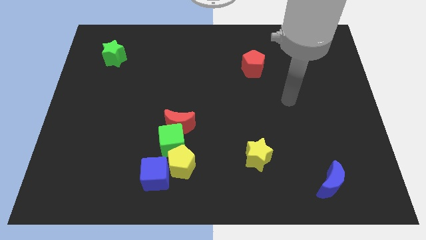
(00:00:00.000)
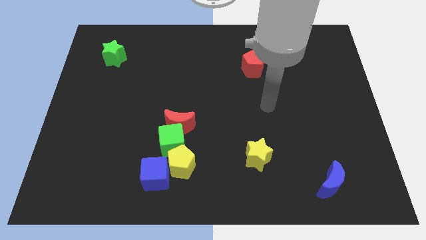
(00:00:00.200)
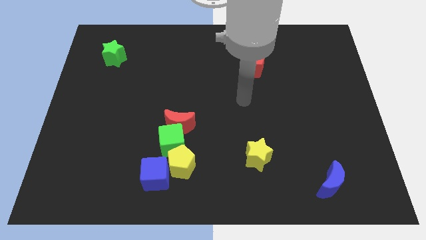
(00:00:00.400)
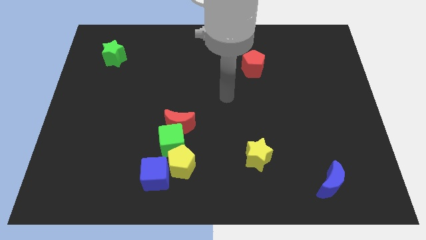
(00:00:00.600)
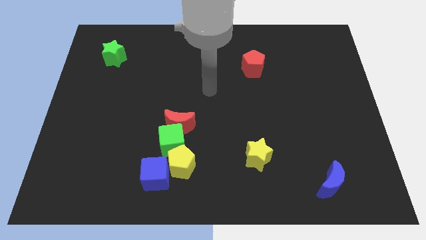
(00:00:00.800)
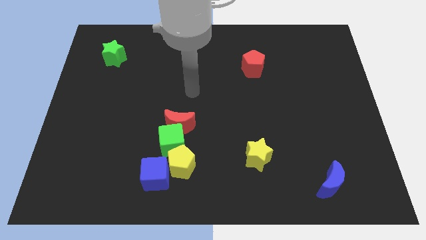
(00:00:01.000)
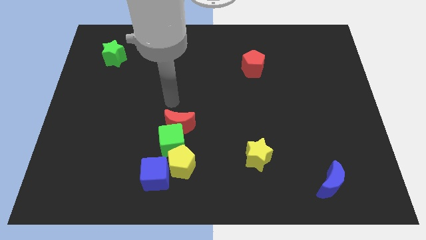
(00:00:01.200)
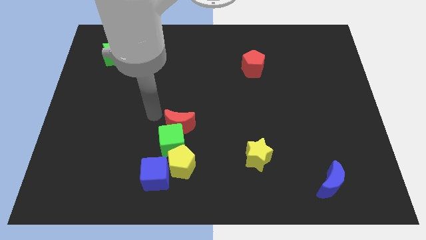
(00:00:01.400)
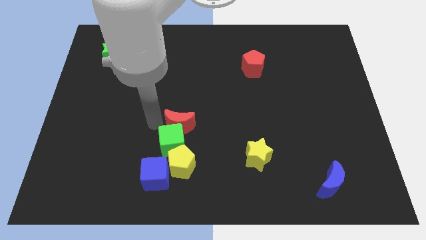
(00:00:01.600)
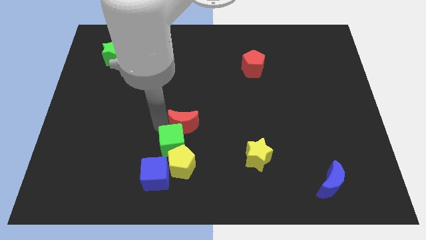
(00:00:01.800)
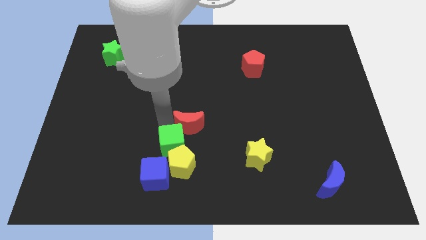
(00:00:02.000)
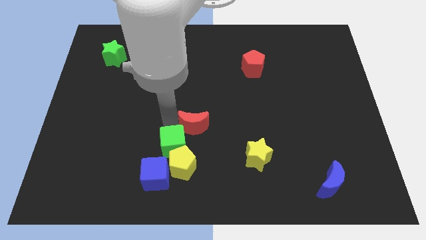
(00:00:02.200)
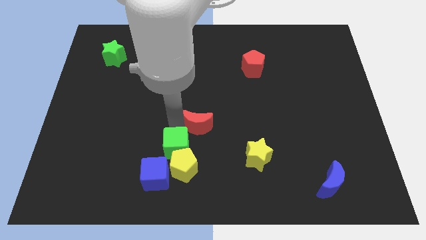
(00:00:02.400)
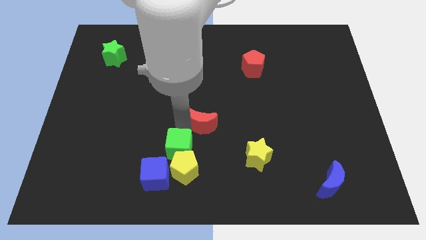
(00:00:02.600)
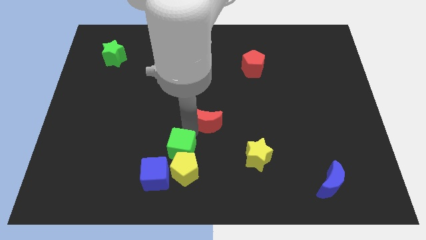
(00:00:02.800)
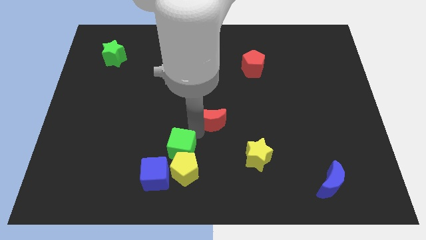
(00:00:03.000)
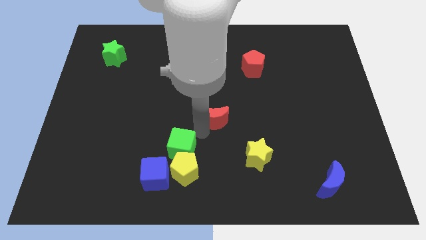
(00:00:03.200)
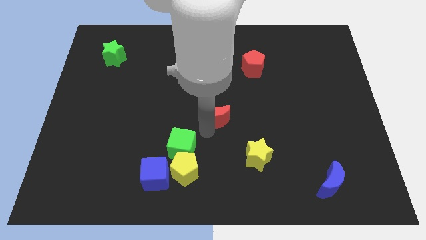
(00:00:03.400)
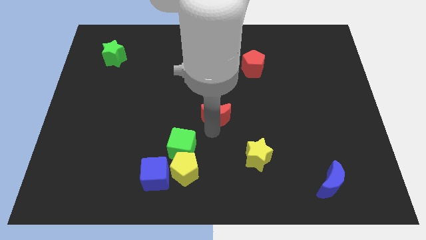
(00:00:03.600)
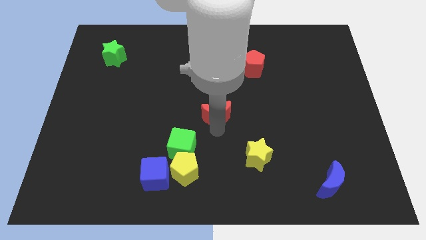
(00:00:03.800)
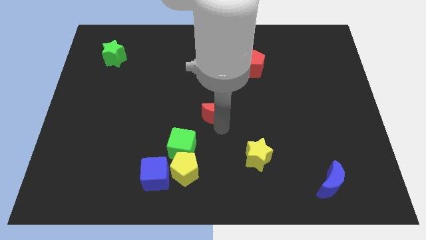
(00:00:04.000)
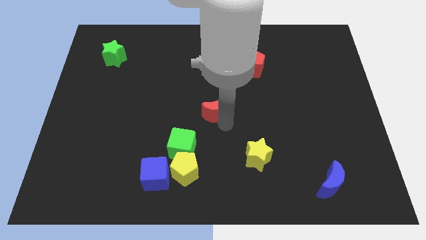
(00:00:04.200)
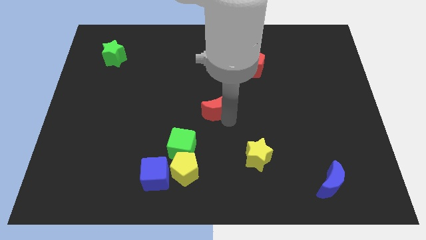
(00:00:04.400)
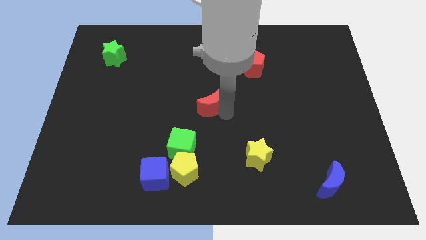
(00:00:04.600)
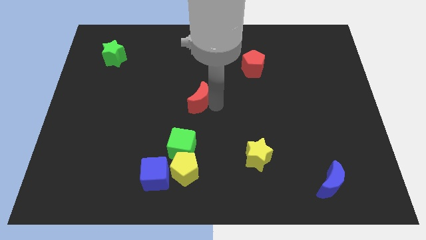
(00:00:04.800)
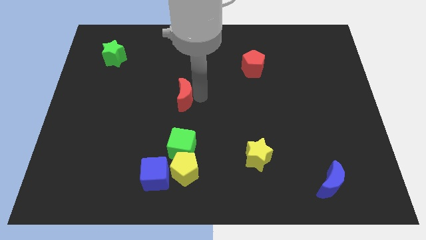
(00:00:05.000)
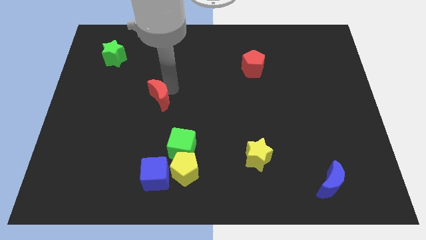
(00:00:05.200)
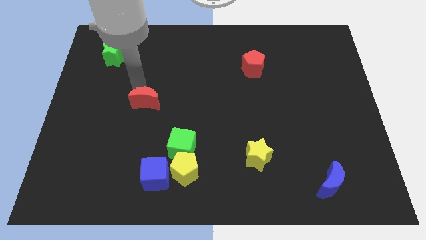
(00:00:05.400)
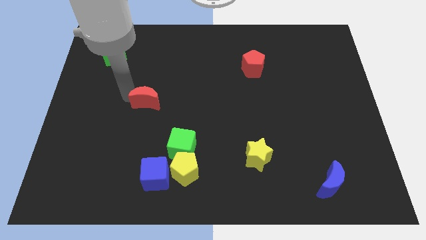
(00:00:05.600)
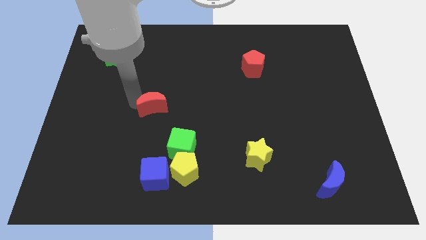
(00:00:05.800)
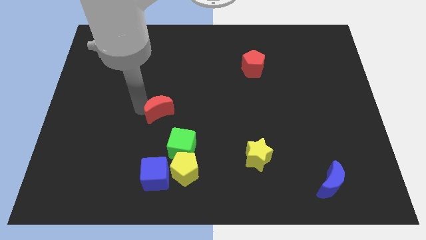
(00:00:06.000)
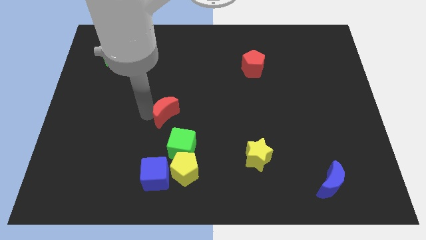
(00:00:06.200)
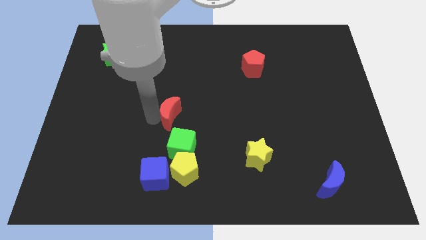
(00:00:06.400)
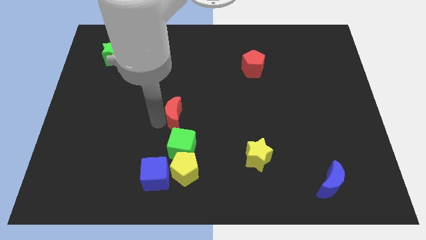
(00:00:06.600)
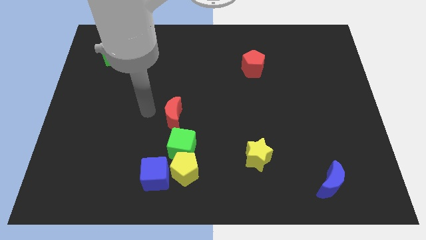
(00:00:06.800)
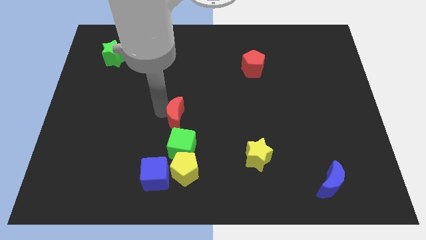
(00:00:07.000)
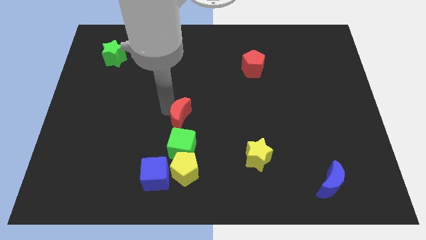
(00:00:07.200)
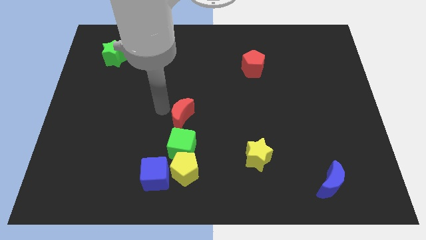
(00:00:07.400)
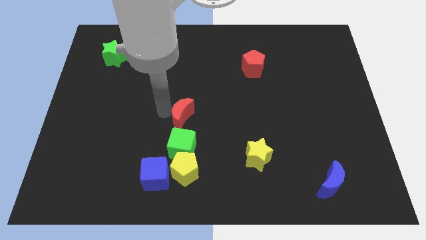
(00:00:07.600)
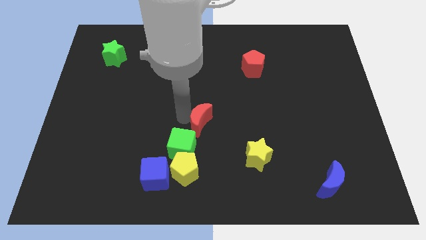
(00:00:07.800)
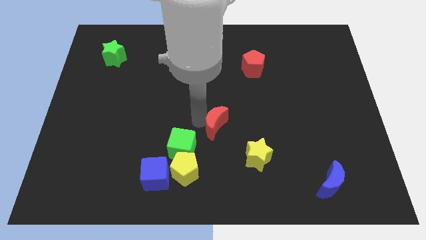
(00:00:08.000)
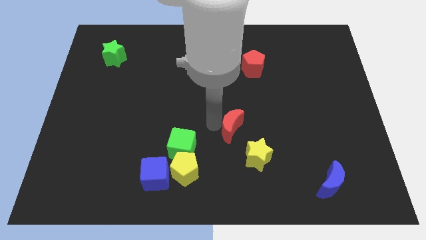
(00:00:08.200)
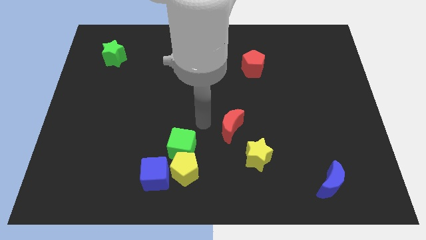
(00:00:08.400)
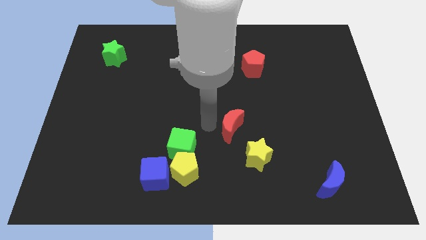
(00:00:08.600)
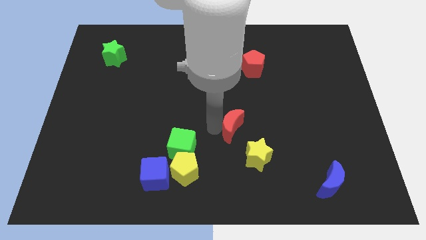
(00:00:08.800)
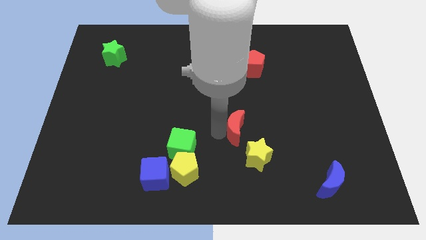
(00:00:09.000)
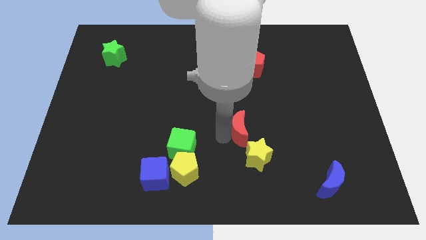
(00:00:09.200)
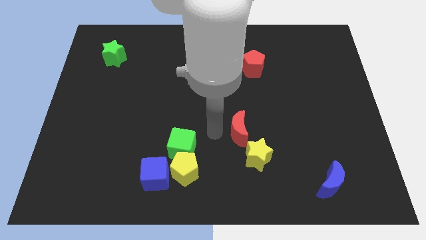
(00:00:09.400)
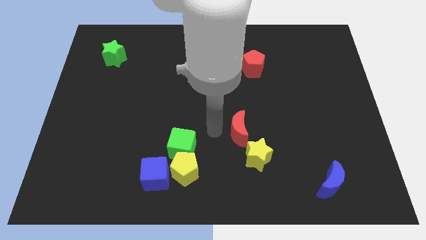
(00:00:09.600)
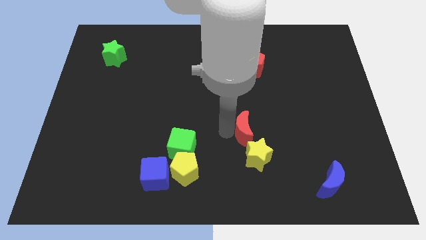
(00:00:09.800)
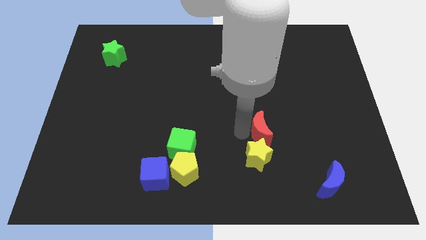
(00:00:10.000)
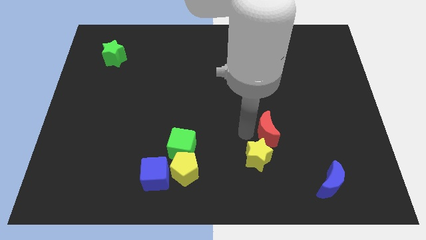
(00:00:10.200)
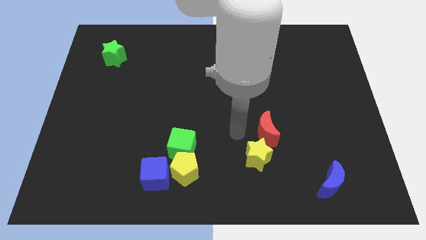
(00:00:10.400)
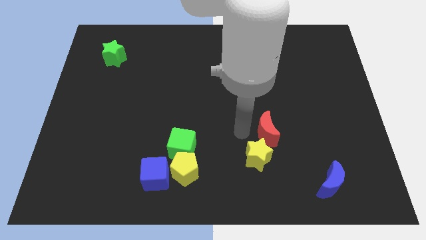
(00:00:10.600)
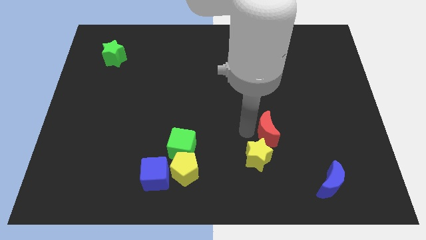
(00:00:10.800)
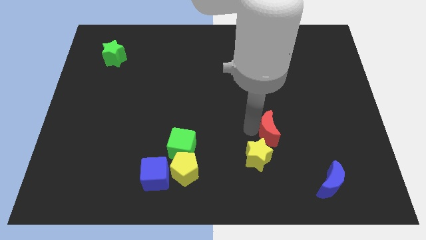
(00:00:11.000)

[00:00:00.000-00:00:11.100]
move the red moon to the right

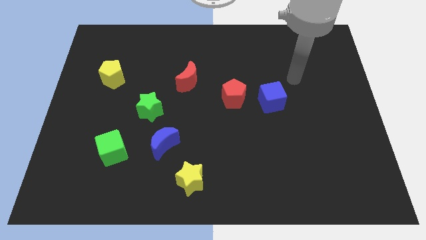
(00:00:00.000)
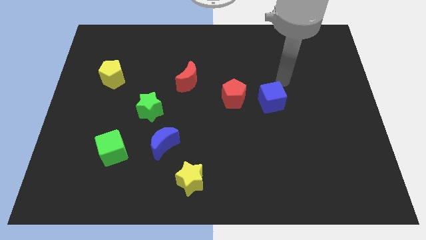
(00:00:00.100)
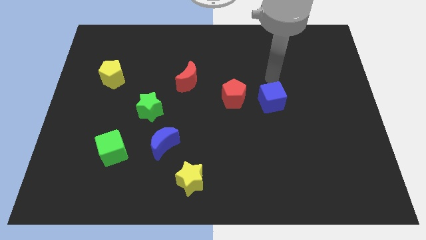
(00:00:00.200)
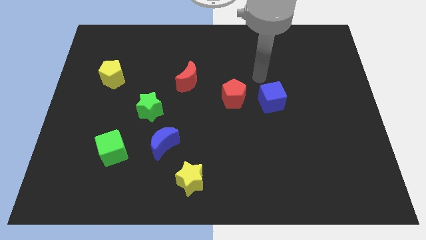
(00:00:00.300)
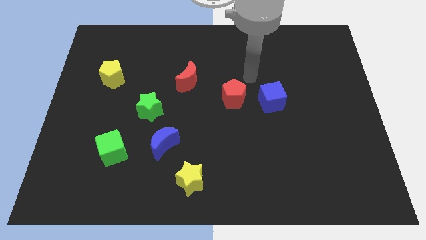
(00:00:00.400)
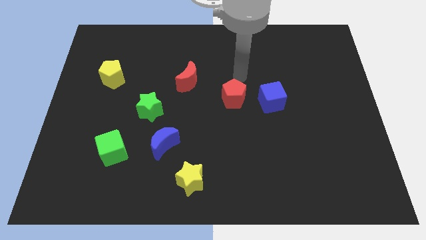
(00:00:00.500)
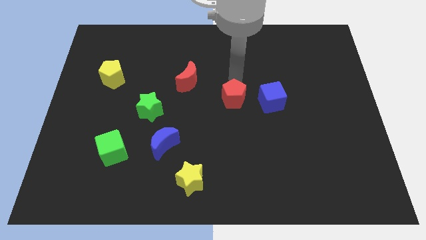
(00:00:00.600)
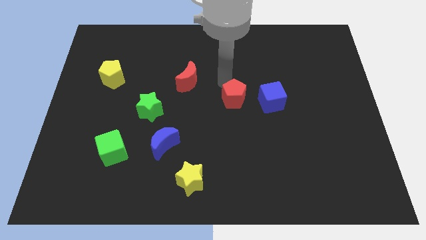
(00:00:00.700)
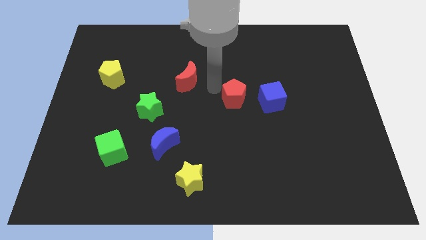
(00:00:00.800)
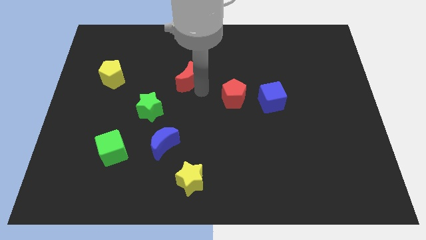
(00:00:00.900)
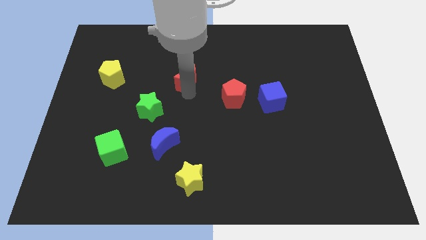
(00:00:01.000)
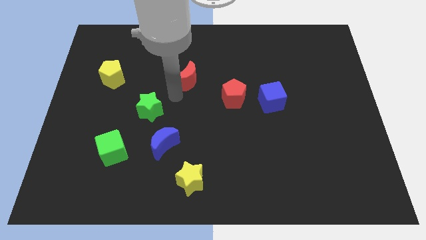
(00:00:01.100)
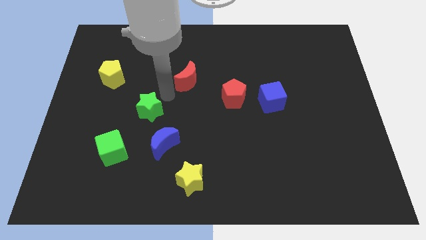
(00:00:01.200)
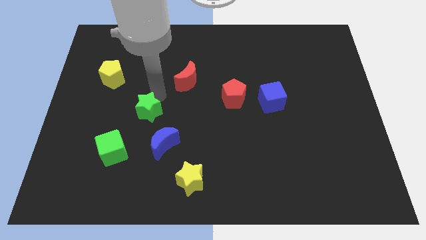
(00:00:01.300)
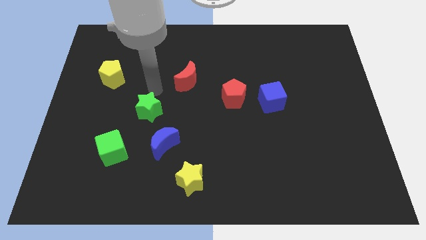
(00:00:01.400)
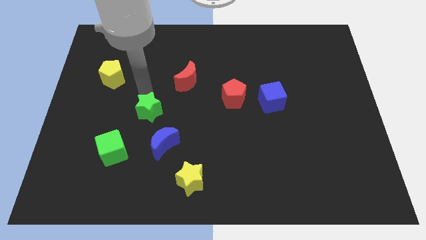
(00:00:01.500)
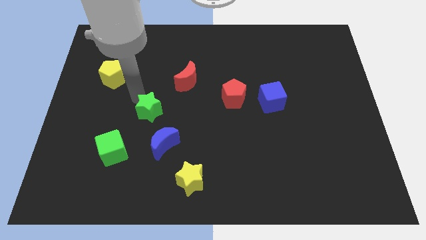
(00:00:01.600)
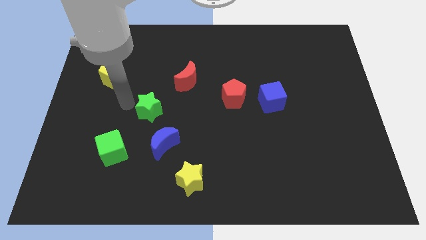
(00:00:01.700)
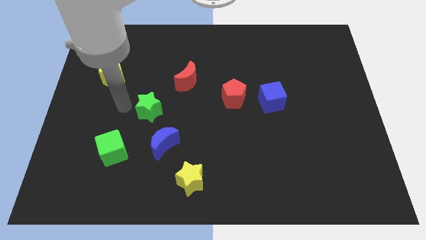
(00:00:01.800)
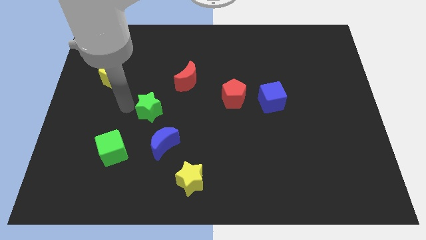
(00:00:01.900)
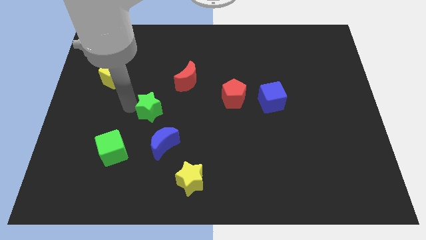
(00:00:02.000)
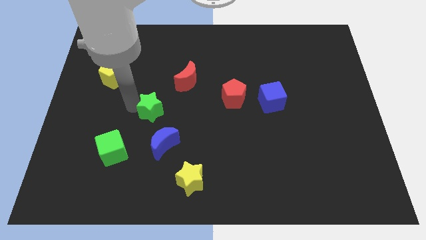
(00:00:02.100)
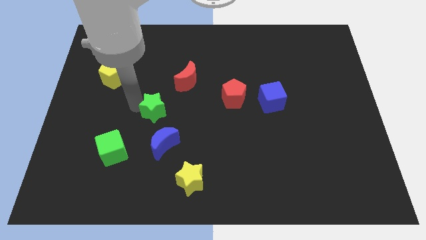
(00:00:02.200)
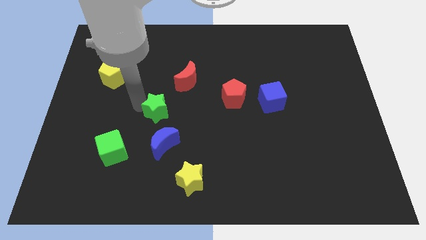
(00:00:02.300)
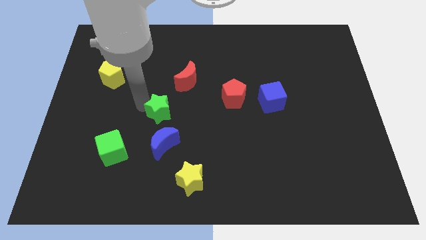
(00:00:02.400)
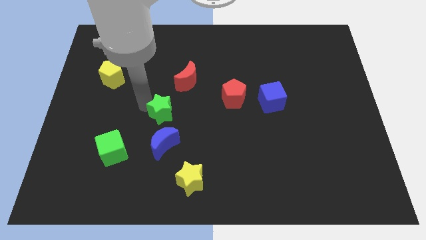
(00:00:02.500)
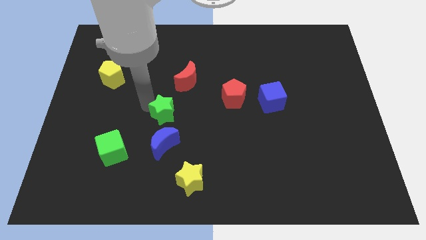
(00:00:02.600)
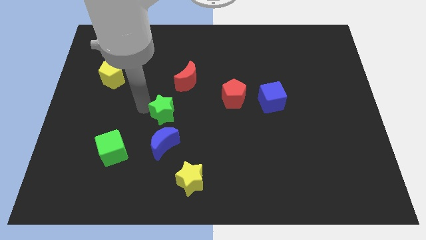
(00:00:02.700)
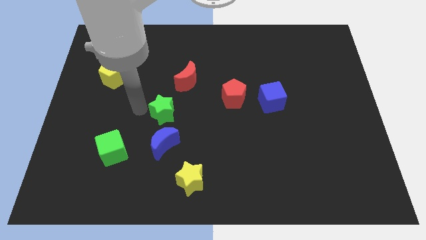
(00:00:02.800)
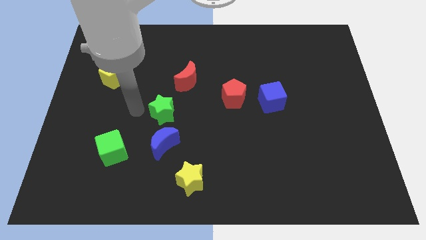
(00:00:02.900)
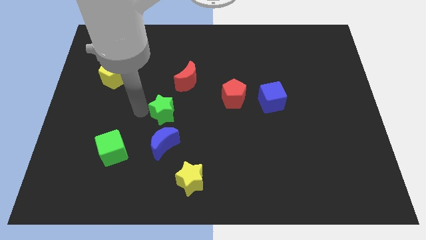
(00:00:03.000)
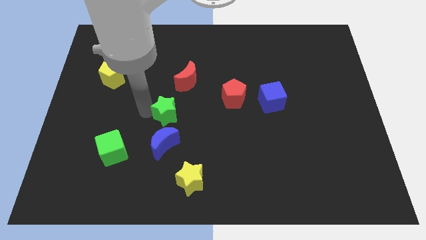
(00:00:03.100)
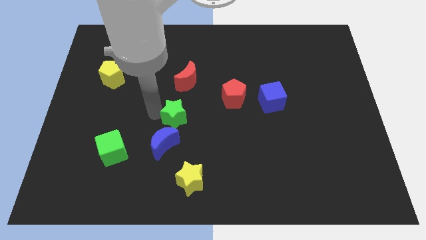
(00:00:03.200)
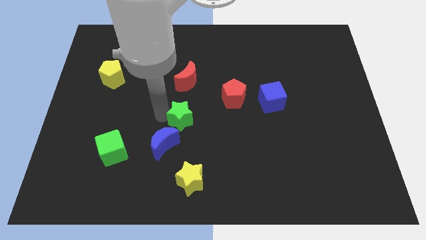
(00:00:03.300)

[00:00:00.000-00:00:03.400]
push the green star a bit to the right
